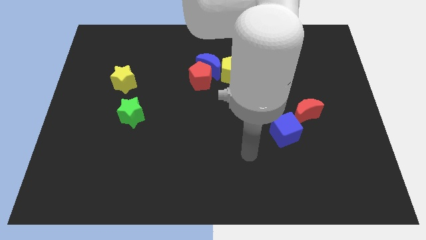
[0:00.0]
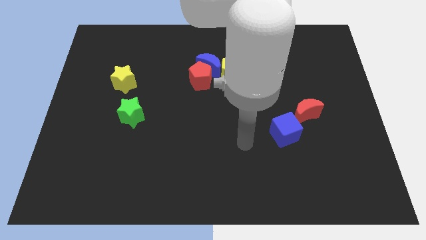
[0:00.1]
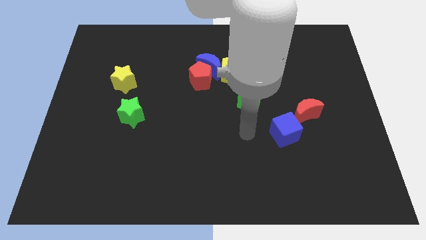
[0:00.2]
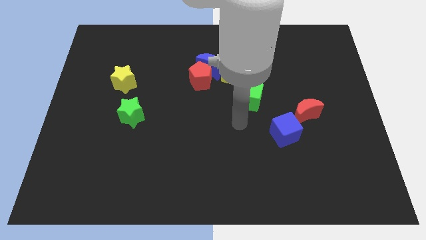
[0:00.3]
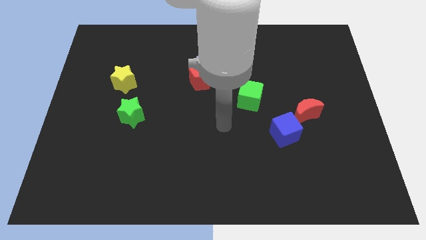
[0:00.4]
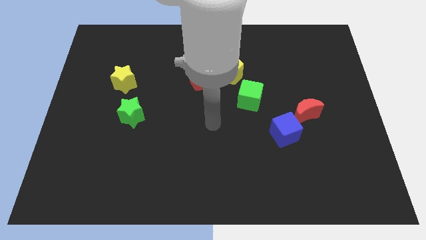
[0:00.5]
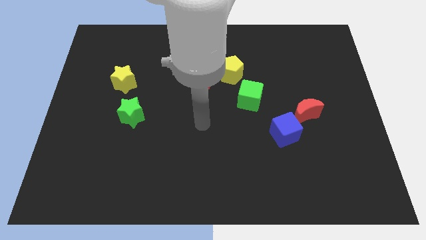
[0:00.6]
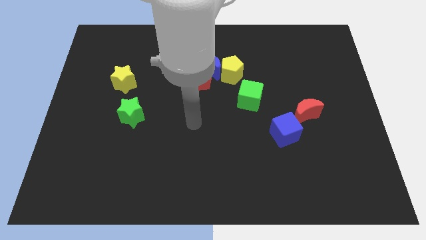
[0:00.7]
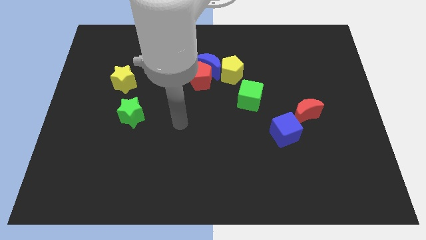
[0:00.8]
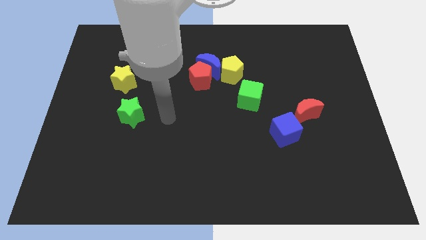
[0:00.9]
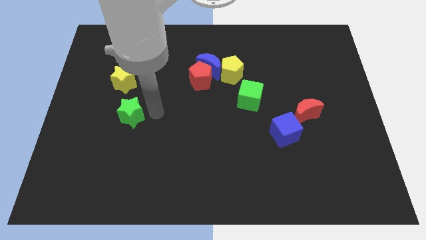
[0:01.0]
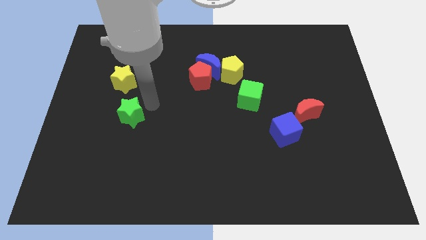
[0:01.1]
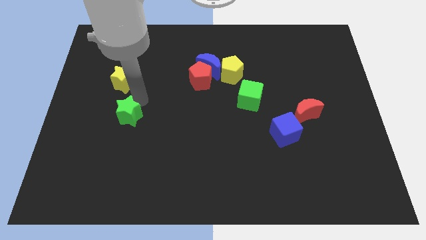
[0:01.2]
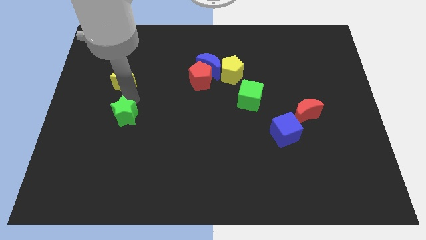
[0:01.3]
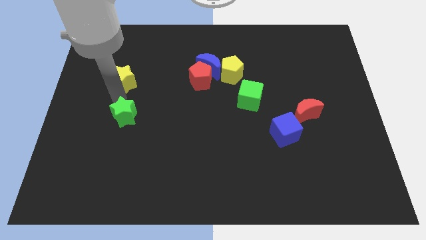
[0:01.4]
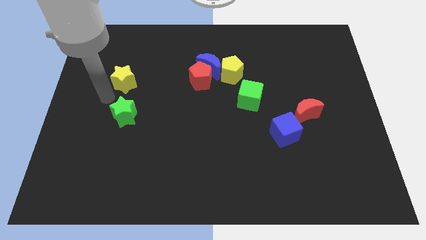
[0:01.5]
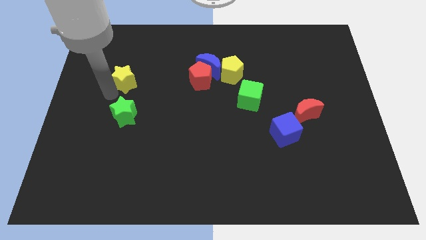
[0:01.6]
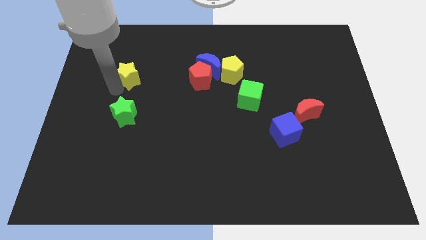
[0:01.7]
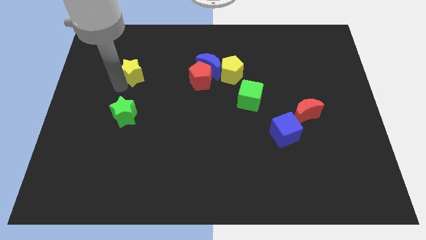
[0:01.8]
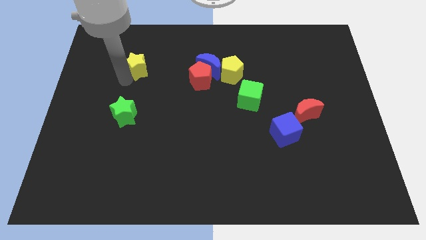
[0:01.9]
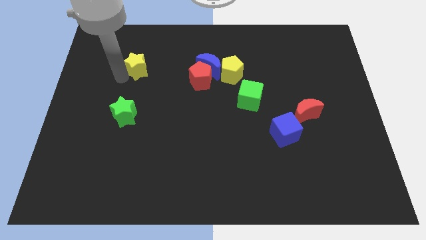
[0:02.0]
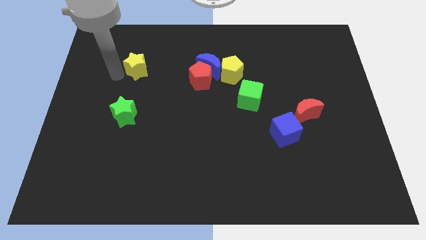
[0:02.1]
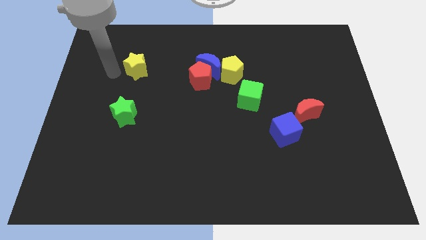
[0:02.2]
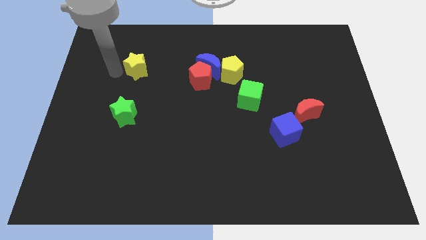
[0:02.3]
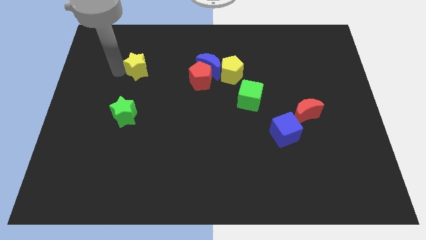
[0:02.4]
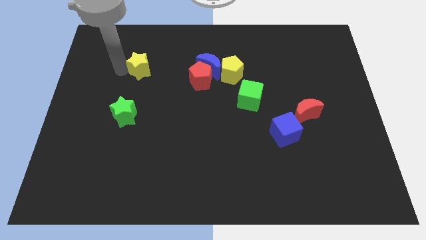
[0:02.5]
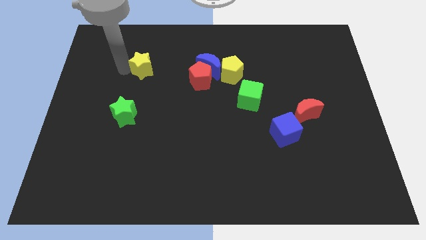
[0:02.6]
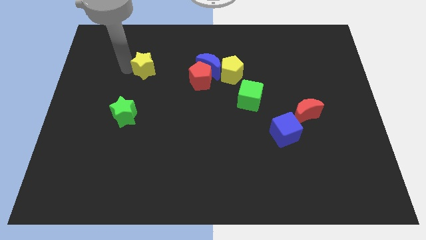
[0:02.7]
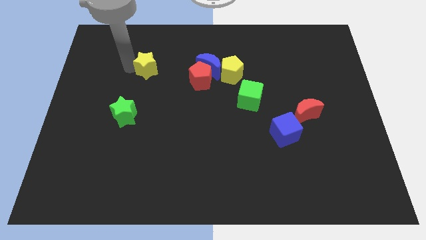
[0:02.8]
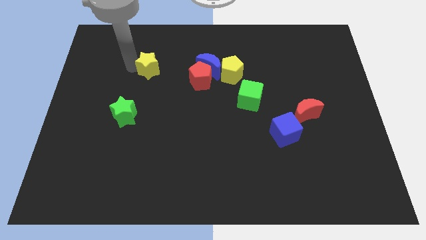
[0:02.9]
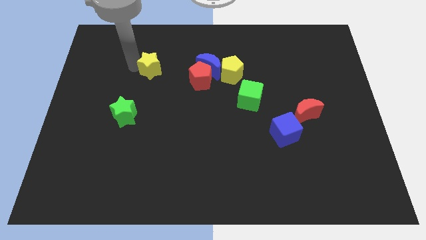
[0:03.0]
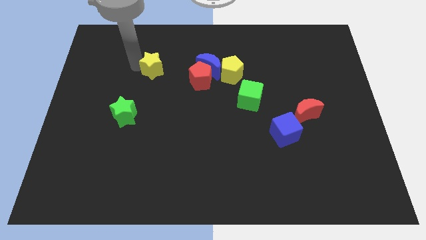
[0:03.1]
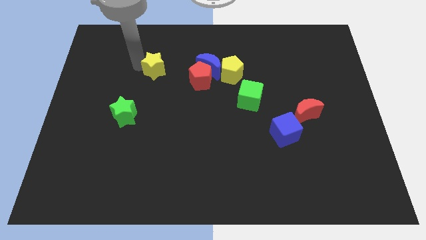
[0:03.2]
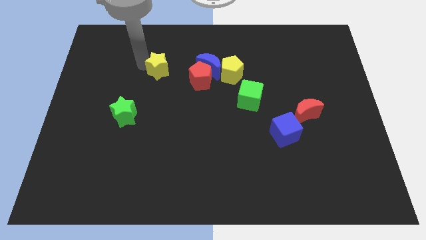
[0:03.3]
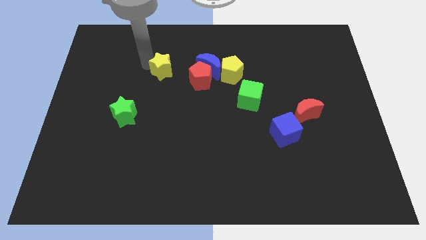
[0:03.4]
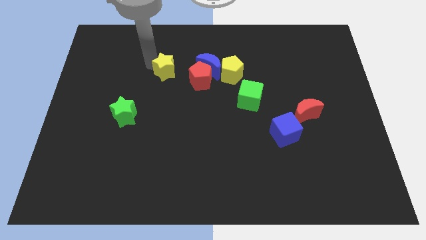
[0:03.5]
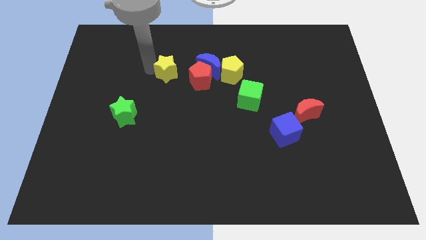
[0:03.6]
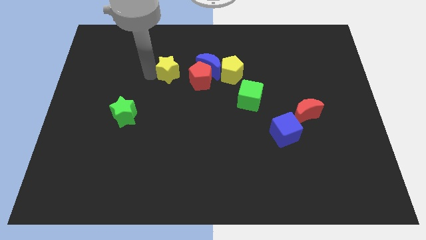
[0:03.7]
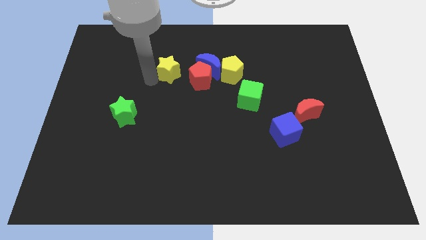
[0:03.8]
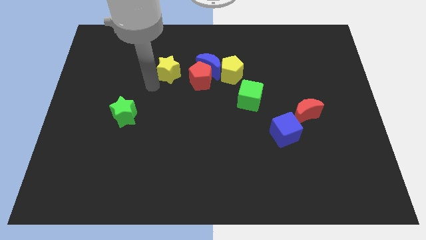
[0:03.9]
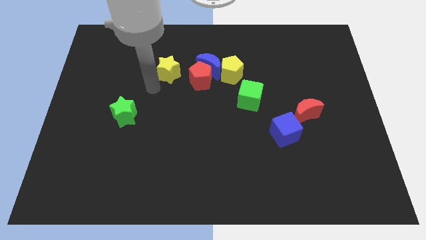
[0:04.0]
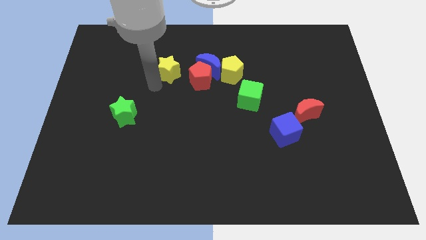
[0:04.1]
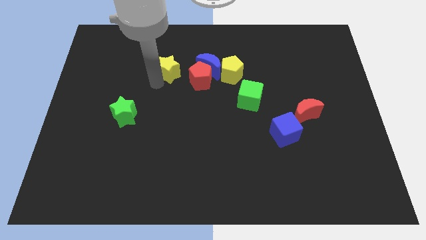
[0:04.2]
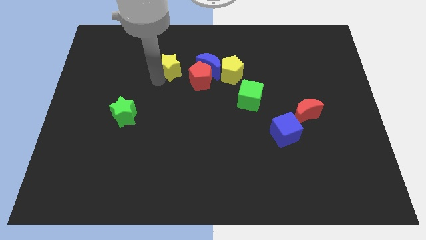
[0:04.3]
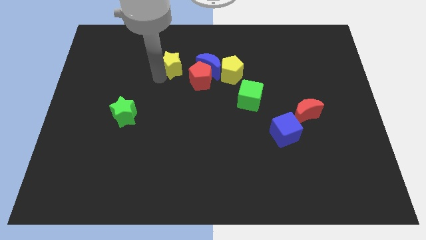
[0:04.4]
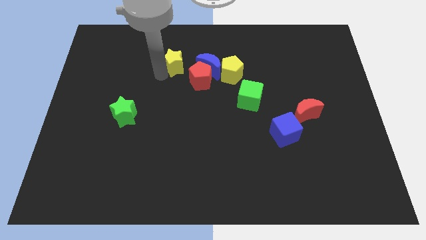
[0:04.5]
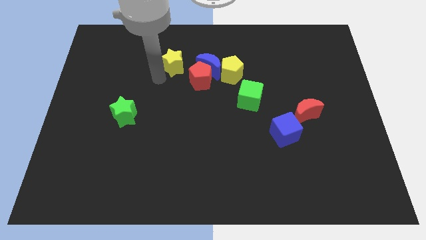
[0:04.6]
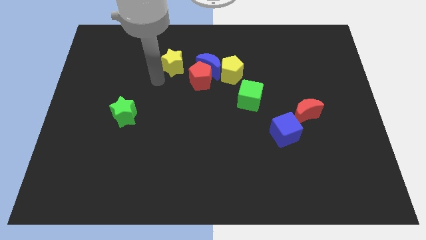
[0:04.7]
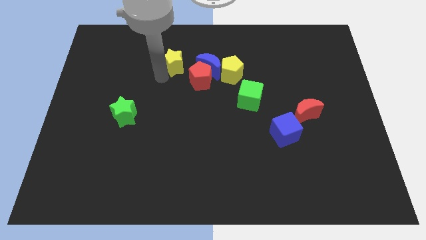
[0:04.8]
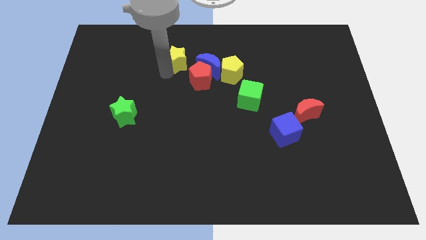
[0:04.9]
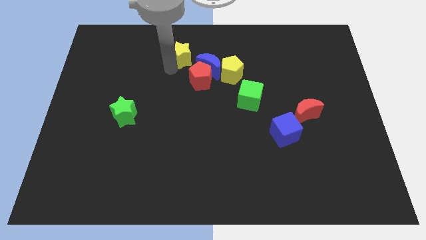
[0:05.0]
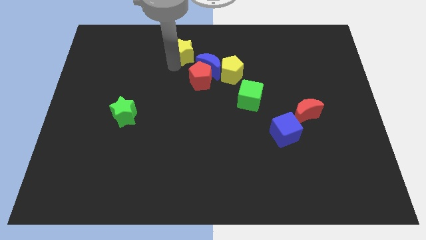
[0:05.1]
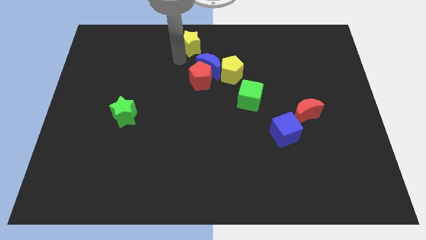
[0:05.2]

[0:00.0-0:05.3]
put the yellow star to the top side

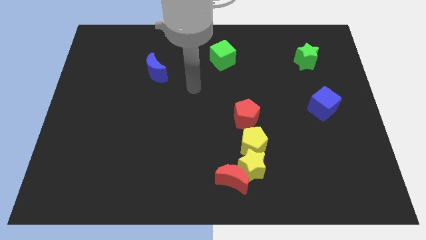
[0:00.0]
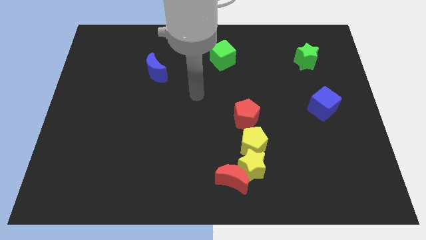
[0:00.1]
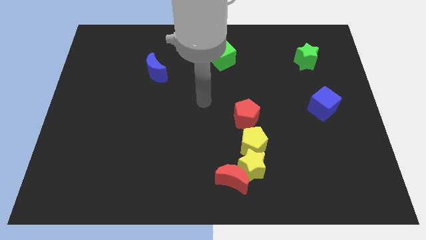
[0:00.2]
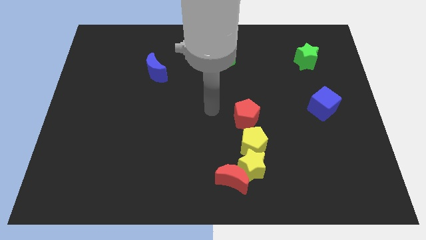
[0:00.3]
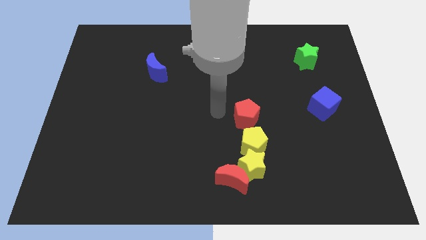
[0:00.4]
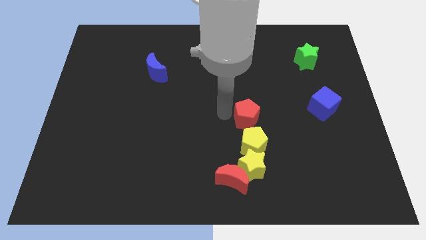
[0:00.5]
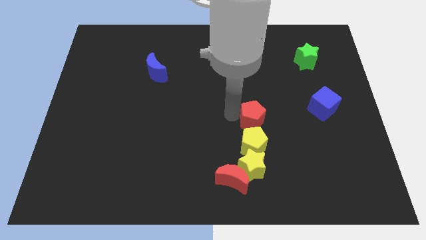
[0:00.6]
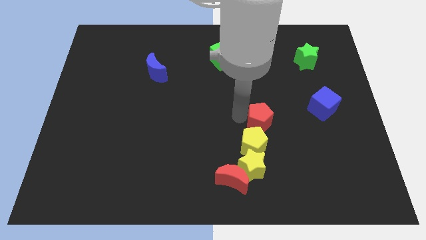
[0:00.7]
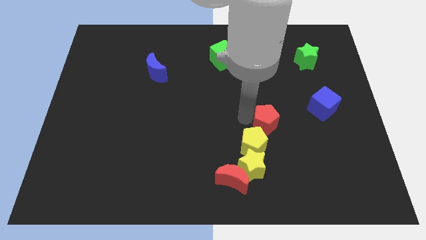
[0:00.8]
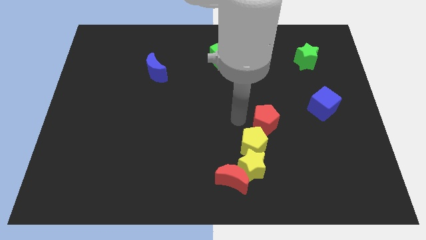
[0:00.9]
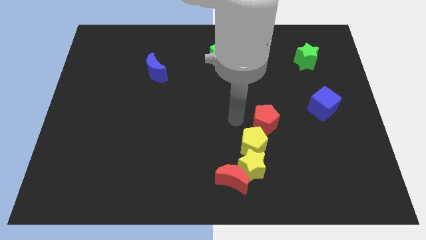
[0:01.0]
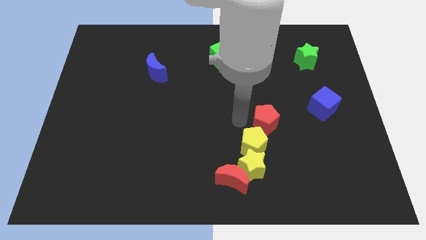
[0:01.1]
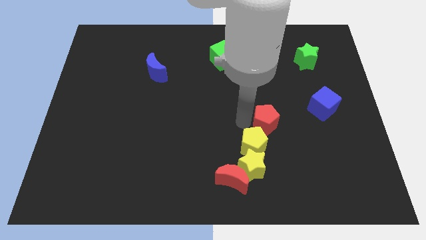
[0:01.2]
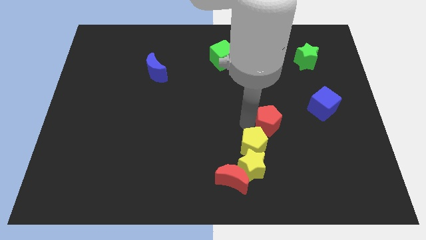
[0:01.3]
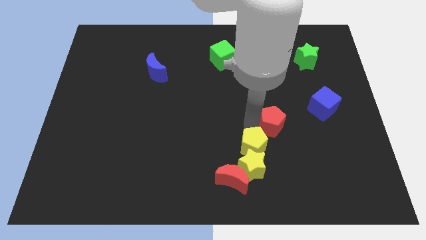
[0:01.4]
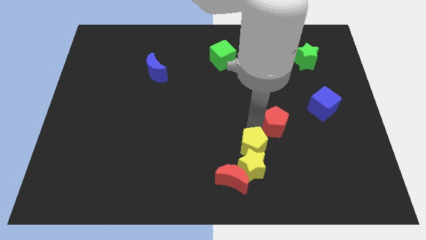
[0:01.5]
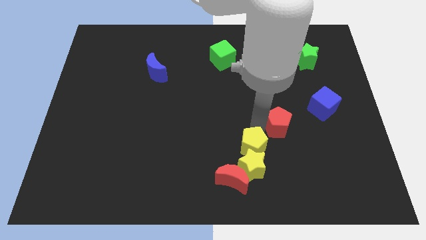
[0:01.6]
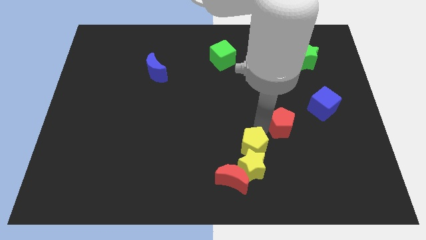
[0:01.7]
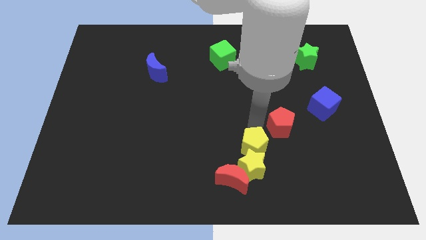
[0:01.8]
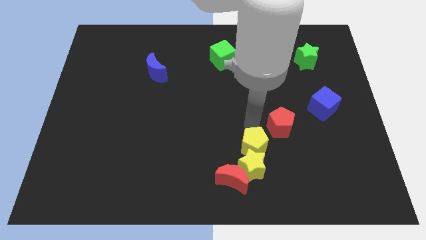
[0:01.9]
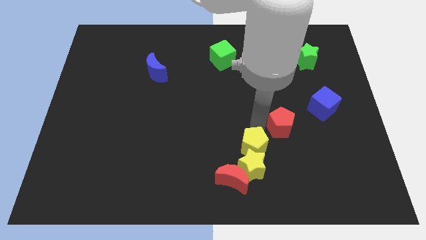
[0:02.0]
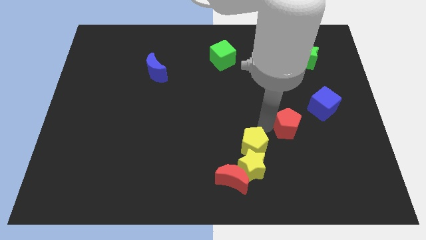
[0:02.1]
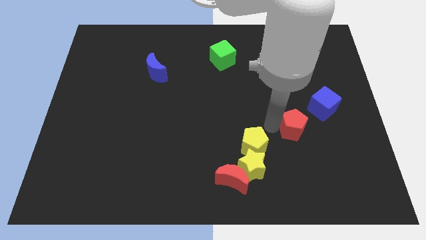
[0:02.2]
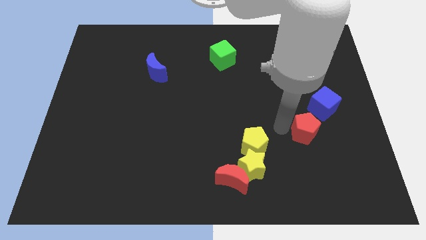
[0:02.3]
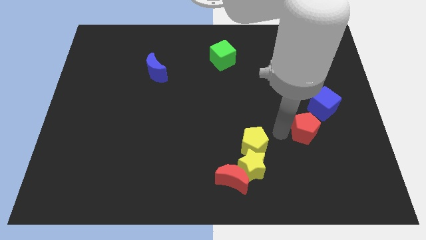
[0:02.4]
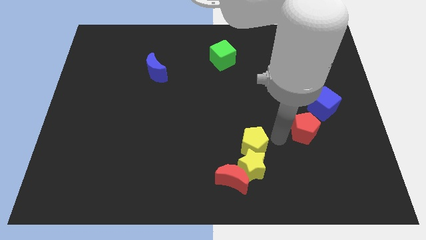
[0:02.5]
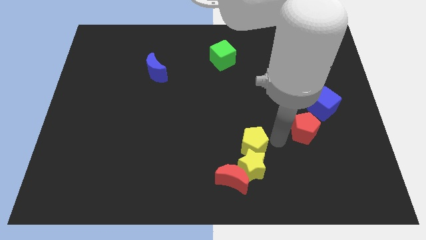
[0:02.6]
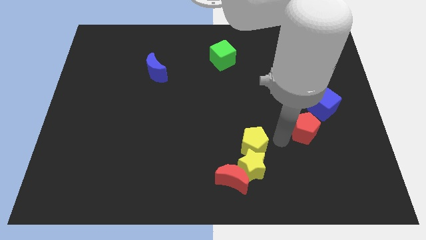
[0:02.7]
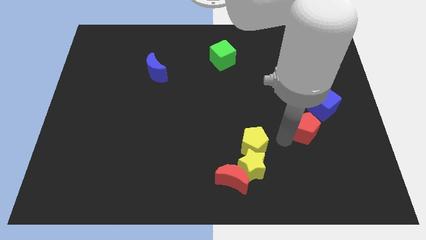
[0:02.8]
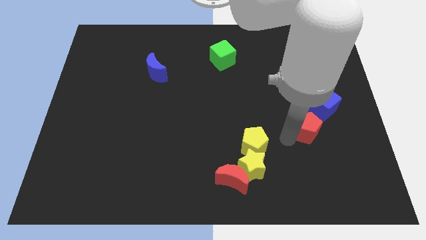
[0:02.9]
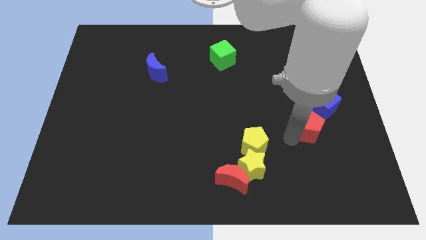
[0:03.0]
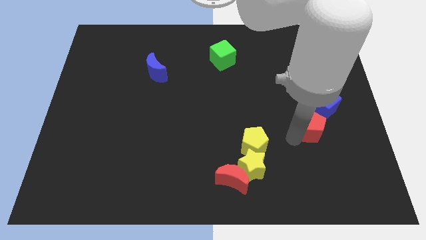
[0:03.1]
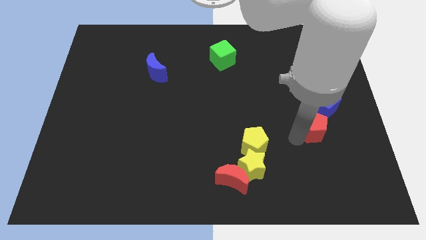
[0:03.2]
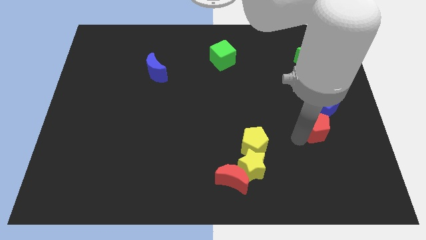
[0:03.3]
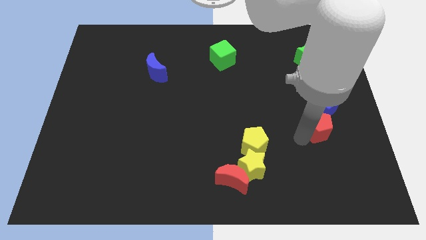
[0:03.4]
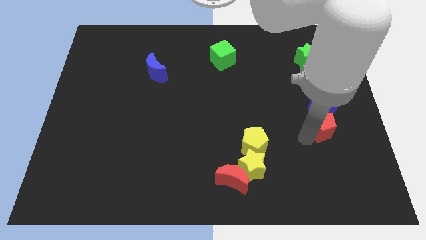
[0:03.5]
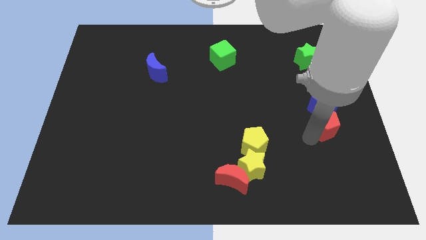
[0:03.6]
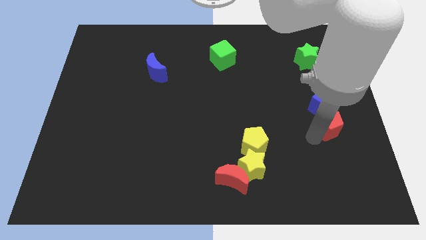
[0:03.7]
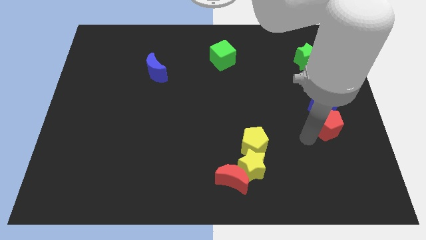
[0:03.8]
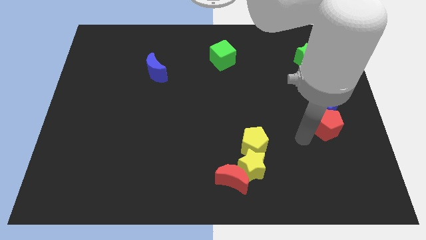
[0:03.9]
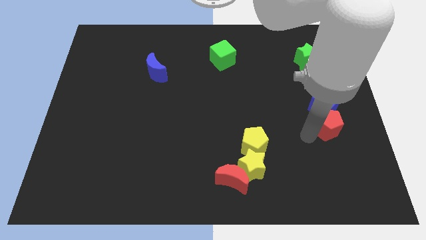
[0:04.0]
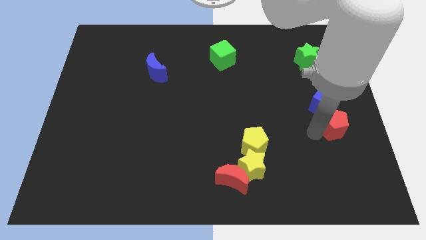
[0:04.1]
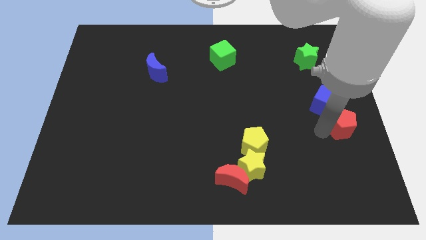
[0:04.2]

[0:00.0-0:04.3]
put the red pentagon to the right side
